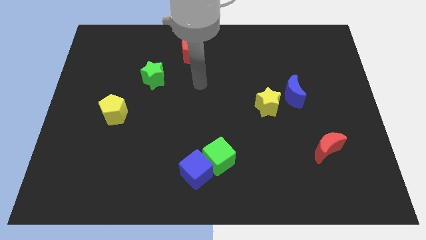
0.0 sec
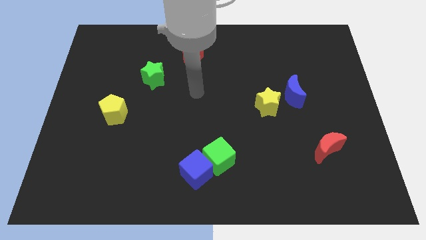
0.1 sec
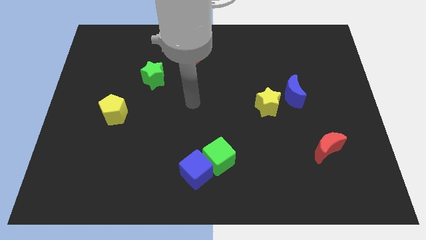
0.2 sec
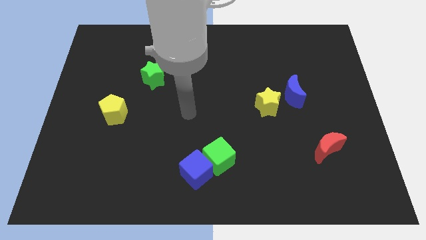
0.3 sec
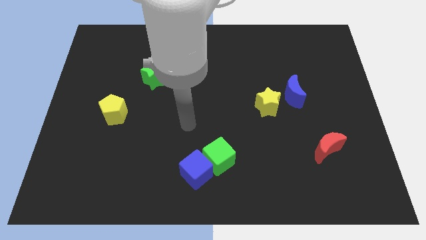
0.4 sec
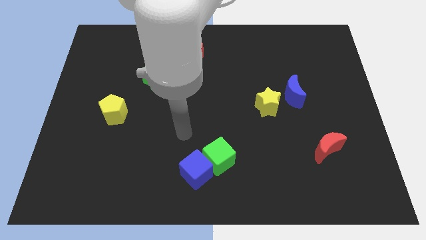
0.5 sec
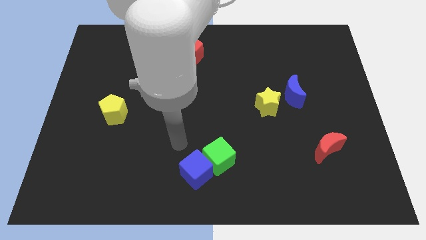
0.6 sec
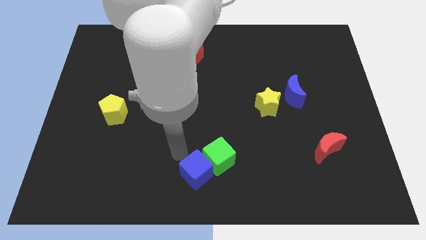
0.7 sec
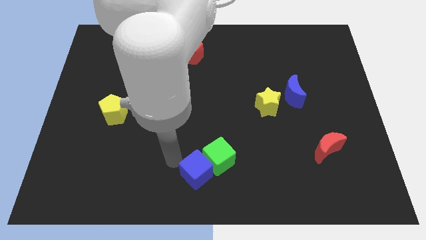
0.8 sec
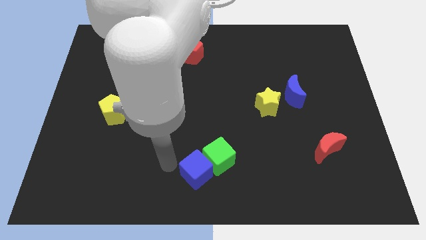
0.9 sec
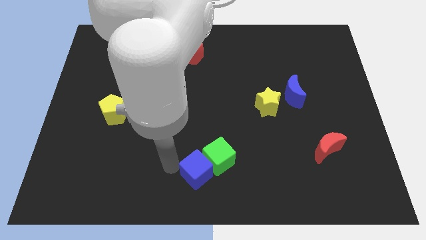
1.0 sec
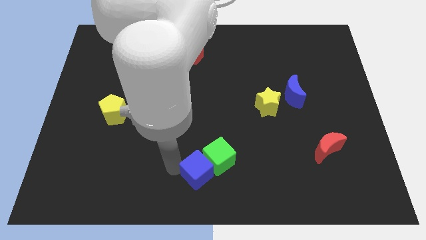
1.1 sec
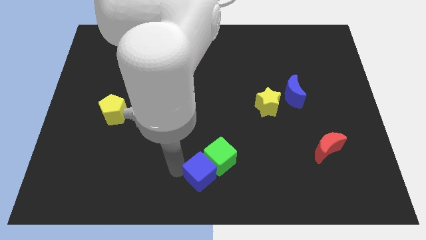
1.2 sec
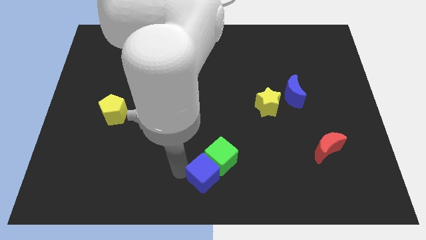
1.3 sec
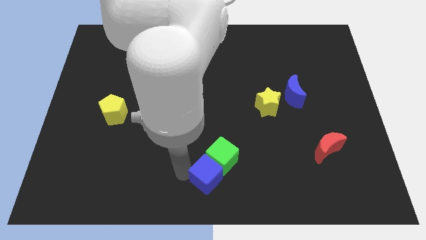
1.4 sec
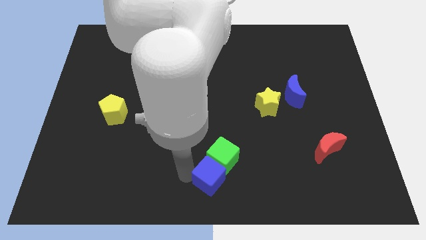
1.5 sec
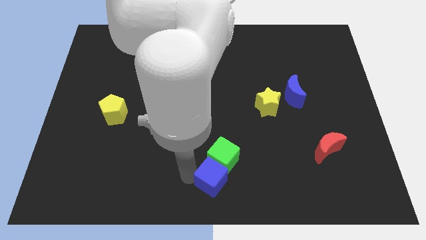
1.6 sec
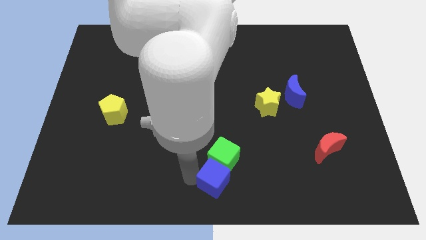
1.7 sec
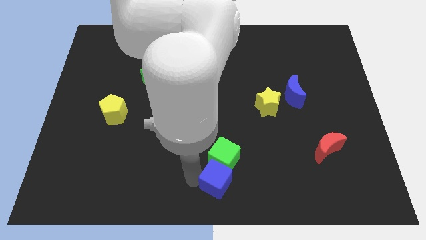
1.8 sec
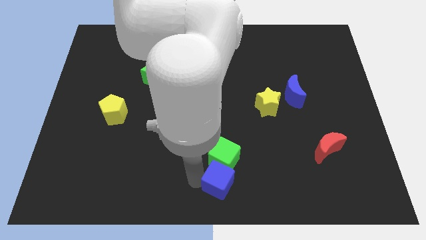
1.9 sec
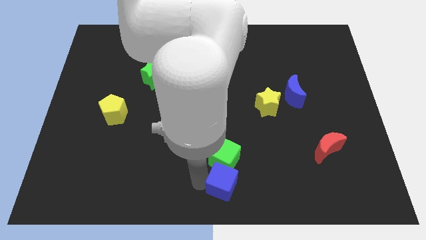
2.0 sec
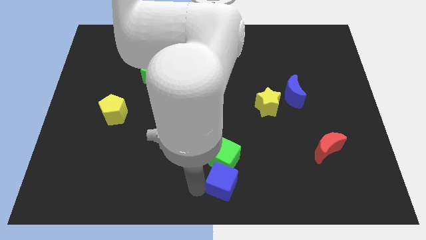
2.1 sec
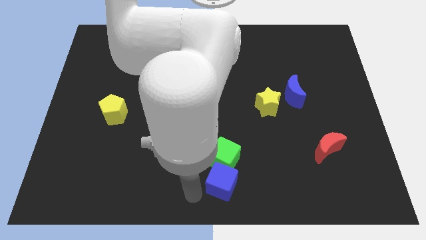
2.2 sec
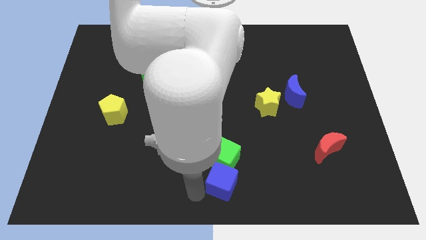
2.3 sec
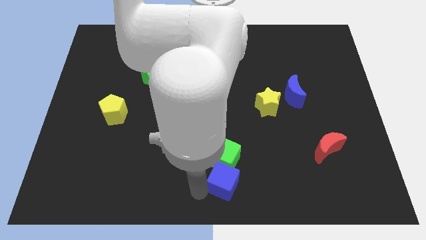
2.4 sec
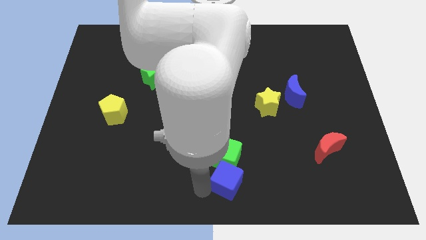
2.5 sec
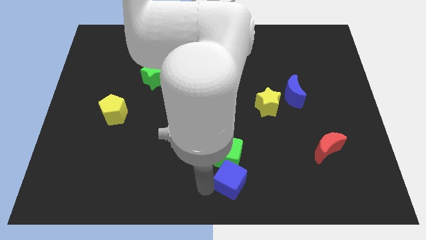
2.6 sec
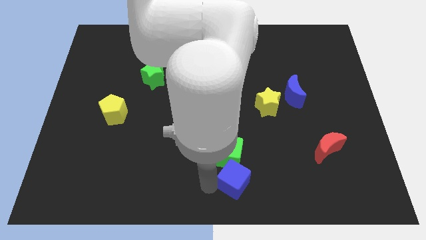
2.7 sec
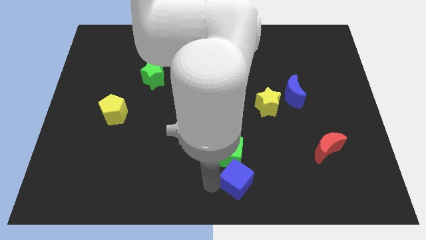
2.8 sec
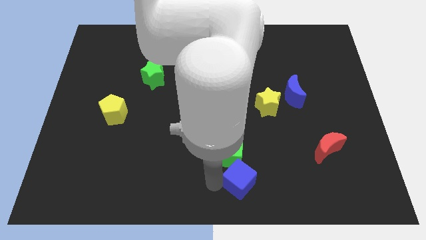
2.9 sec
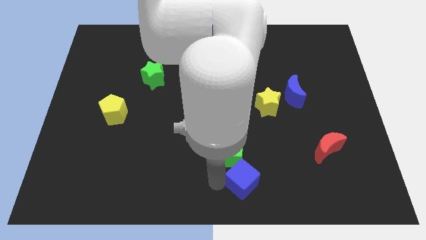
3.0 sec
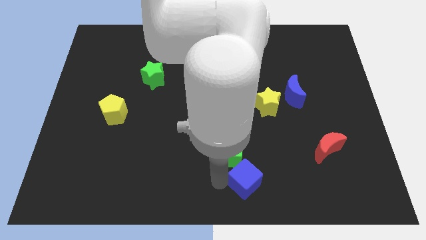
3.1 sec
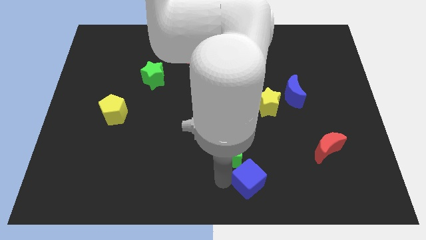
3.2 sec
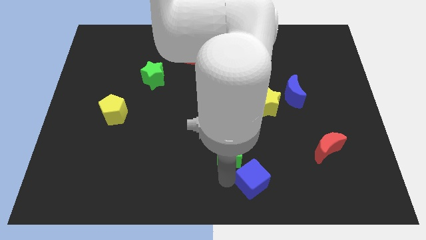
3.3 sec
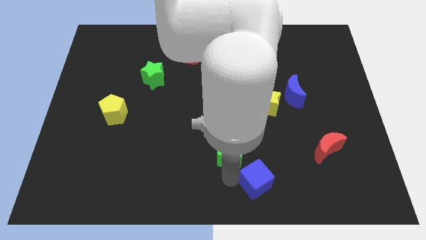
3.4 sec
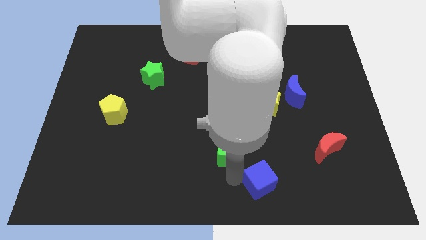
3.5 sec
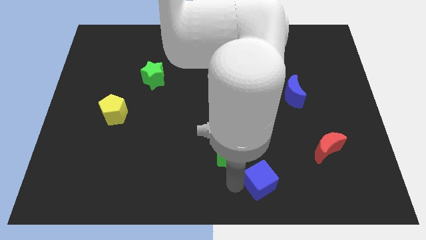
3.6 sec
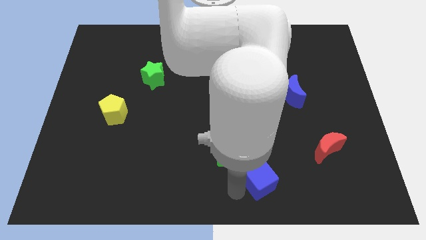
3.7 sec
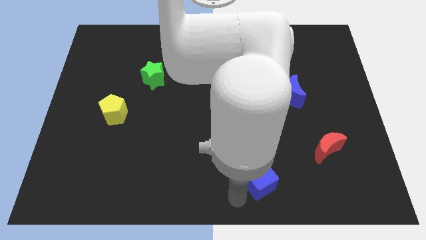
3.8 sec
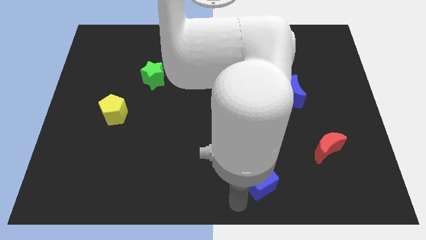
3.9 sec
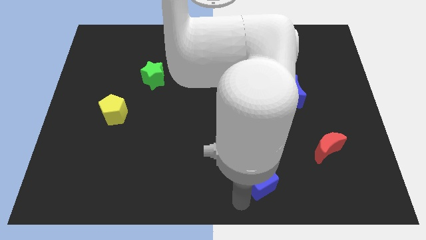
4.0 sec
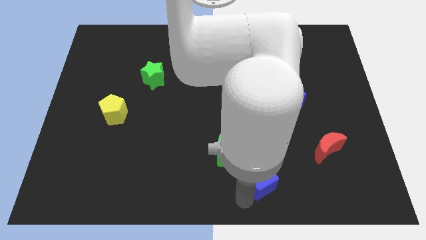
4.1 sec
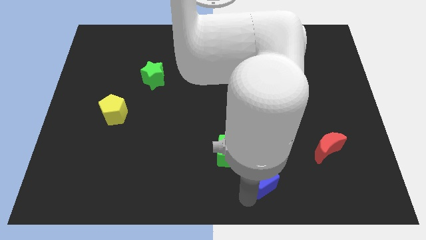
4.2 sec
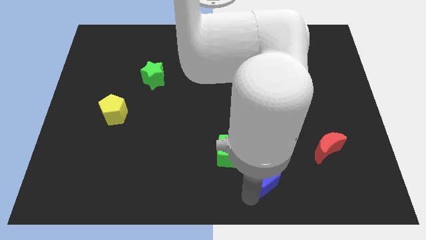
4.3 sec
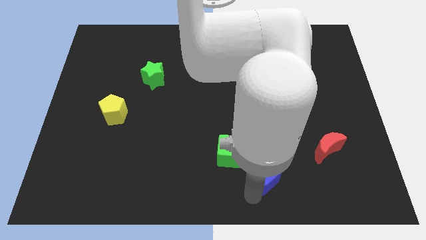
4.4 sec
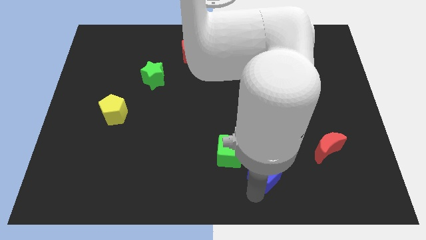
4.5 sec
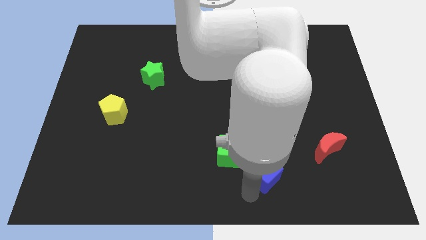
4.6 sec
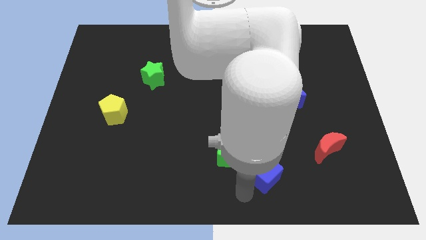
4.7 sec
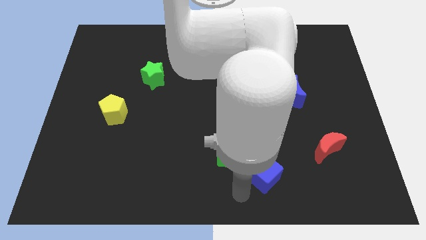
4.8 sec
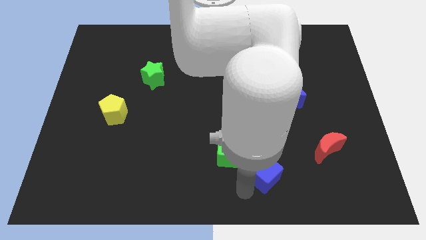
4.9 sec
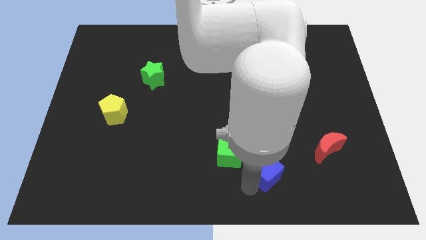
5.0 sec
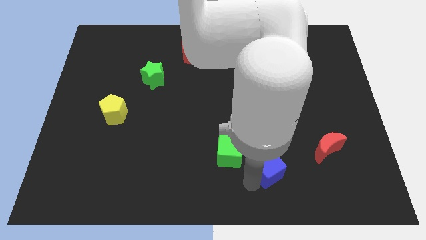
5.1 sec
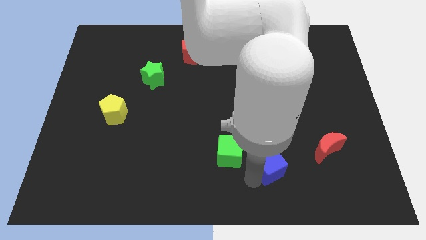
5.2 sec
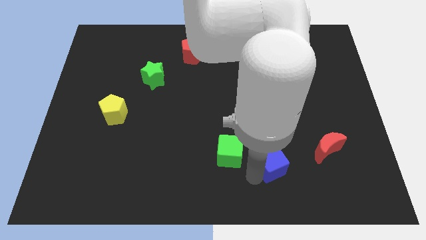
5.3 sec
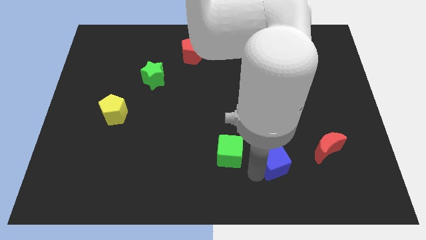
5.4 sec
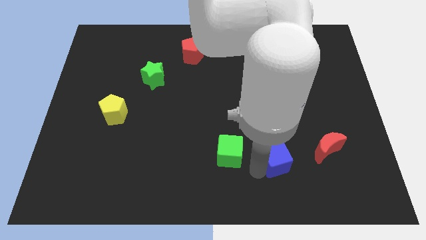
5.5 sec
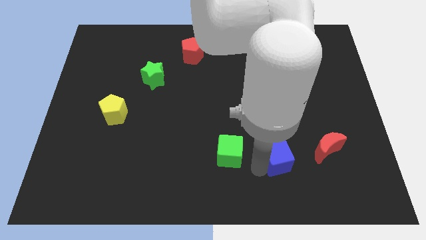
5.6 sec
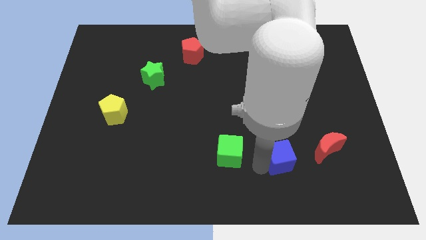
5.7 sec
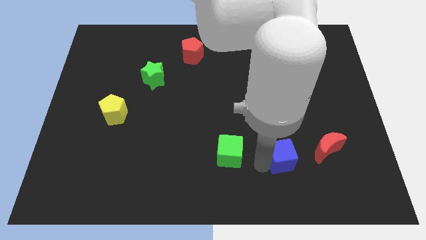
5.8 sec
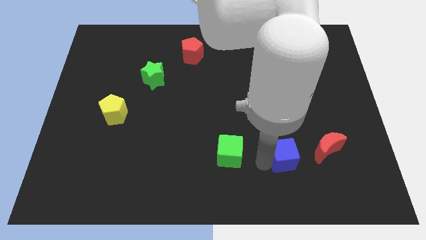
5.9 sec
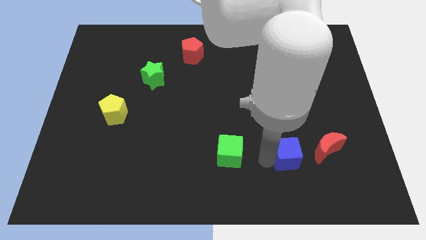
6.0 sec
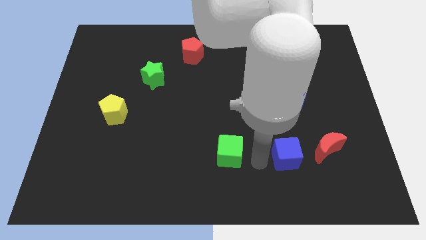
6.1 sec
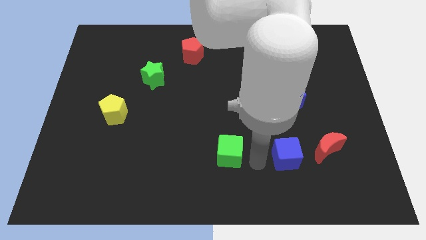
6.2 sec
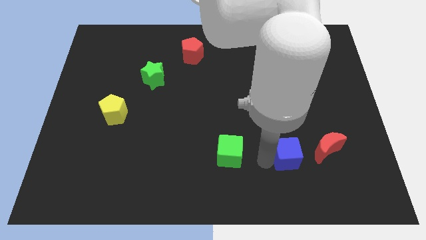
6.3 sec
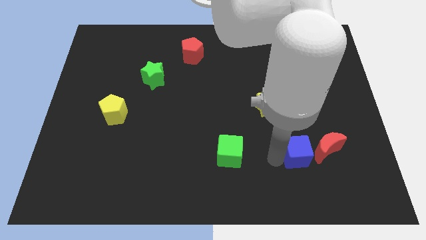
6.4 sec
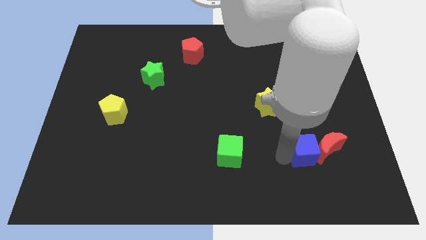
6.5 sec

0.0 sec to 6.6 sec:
slide the blue cube to the red moon

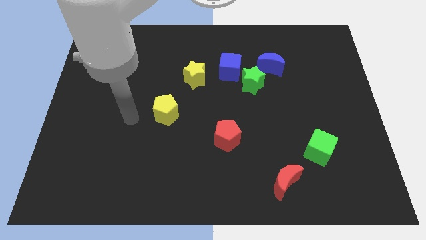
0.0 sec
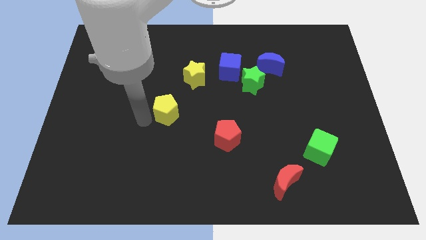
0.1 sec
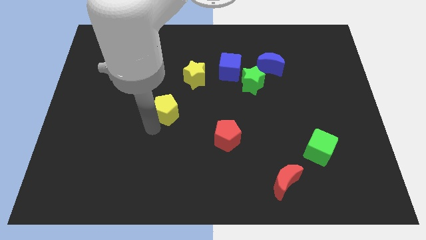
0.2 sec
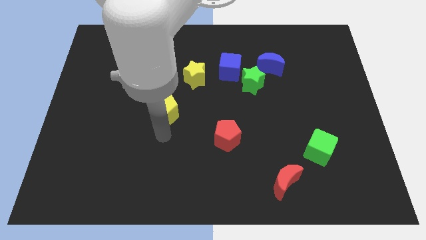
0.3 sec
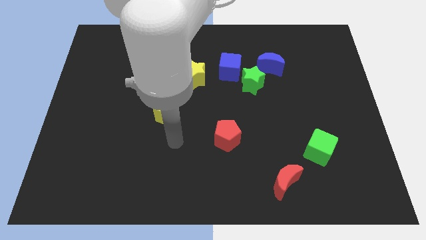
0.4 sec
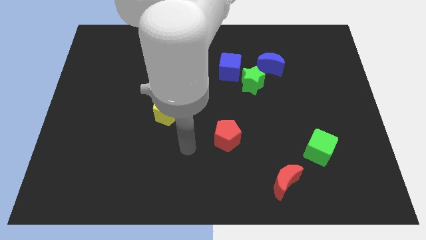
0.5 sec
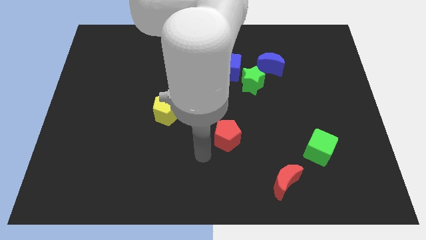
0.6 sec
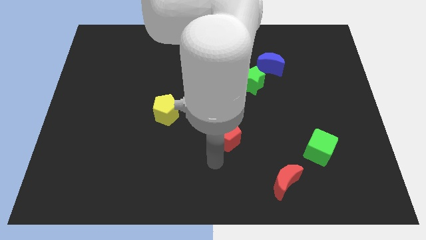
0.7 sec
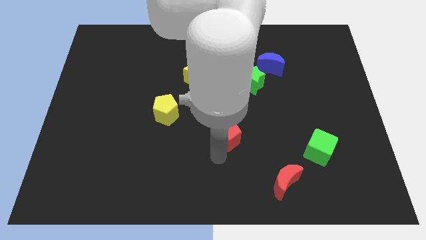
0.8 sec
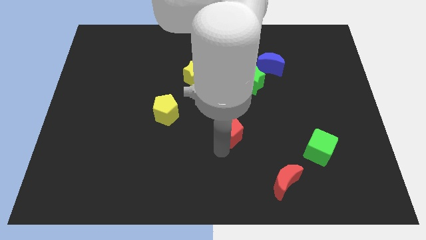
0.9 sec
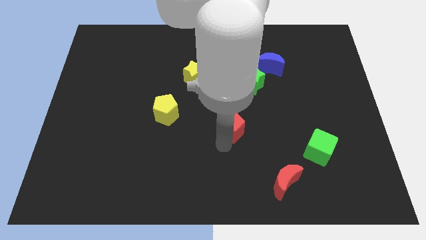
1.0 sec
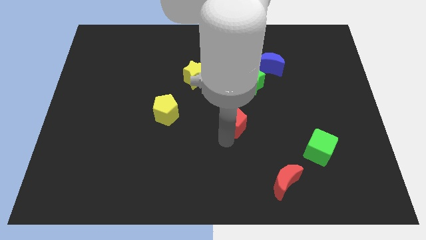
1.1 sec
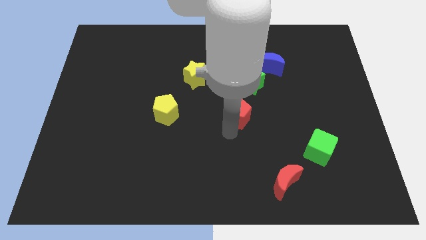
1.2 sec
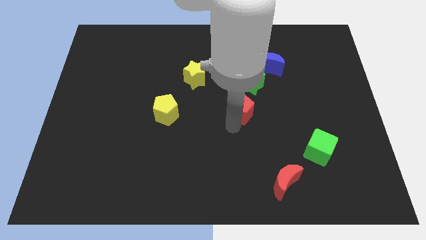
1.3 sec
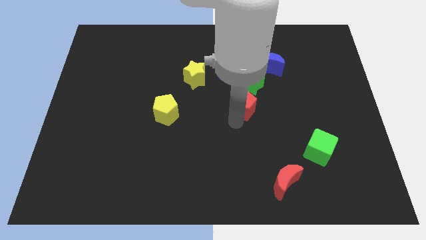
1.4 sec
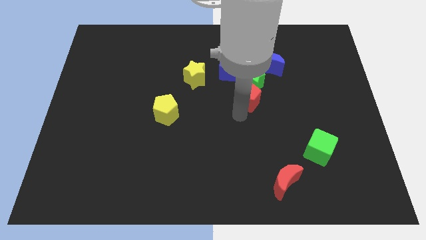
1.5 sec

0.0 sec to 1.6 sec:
move the red pentagon to the green star
